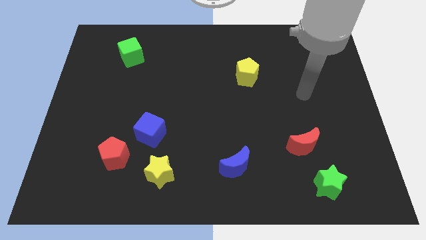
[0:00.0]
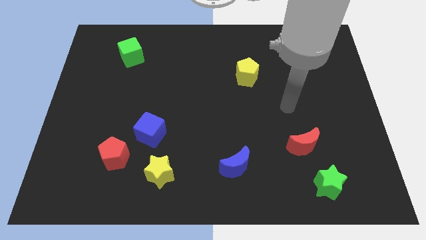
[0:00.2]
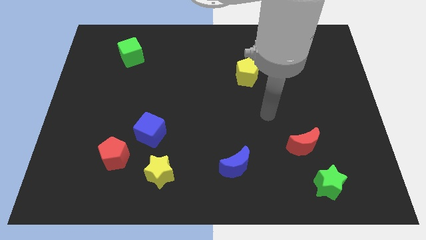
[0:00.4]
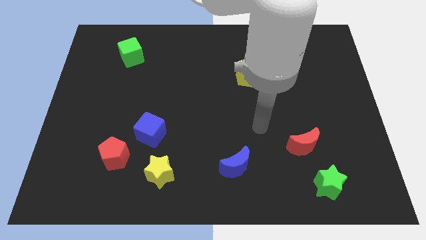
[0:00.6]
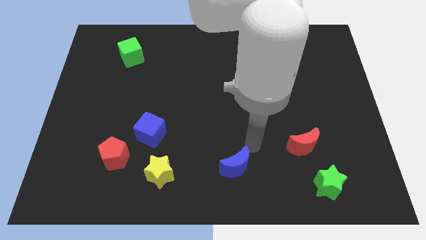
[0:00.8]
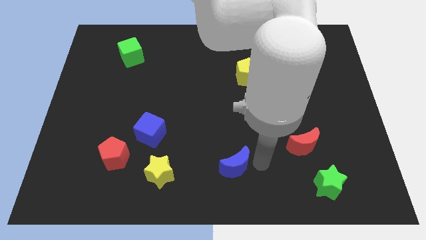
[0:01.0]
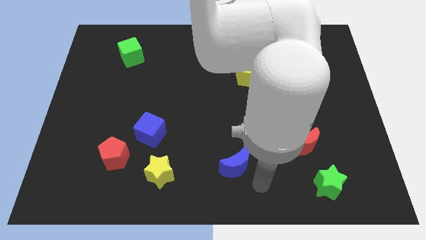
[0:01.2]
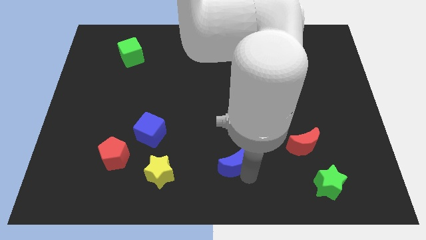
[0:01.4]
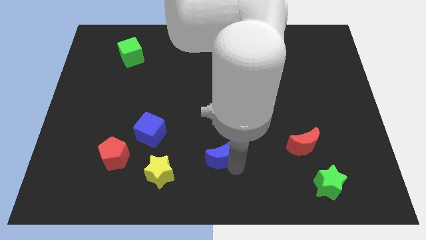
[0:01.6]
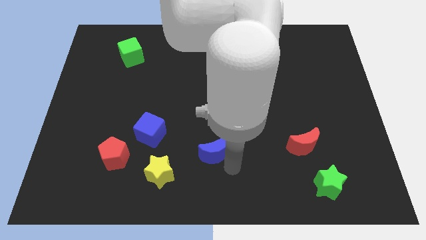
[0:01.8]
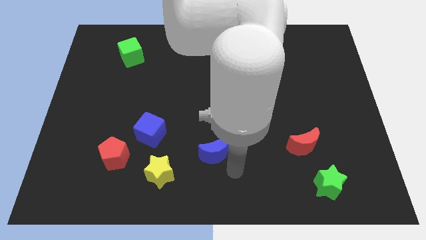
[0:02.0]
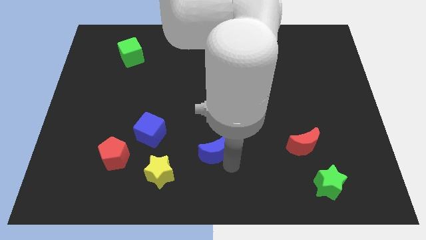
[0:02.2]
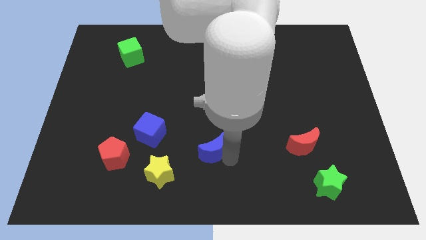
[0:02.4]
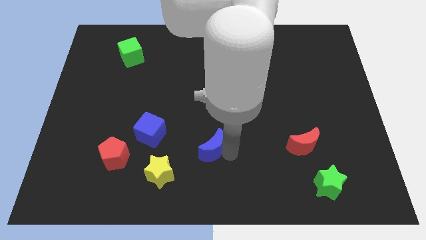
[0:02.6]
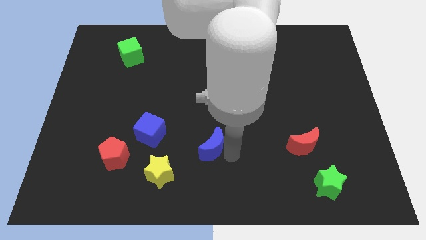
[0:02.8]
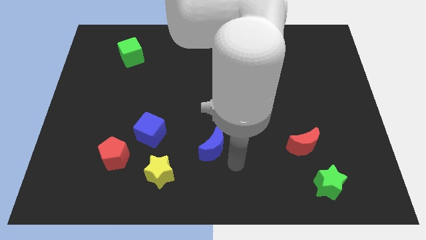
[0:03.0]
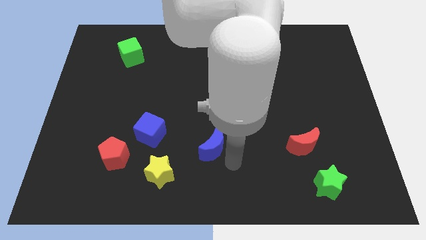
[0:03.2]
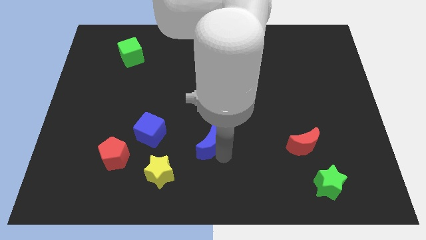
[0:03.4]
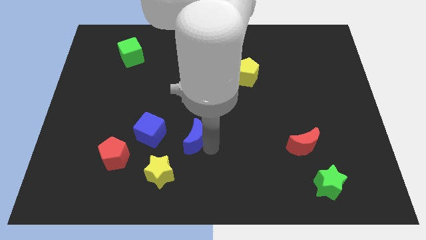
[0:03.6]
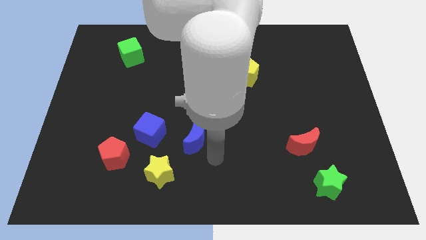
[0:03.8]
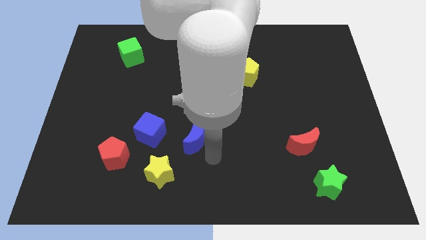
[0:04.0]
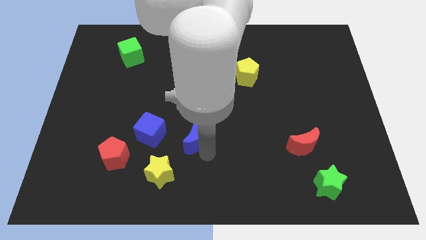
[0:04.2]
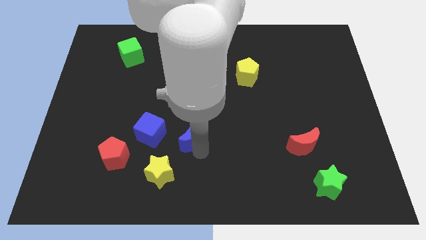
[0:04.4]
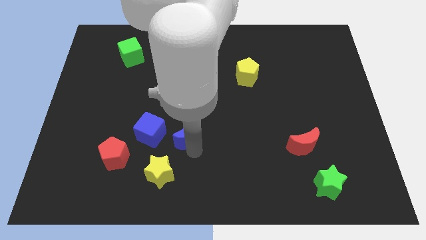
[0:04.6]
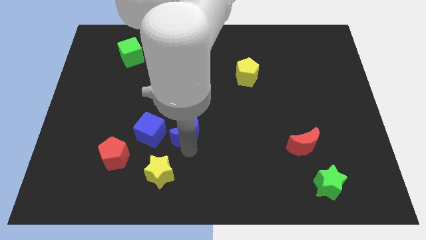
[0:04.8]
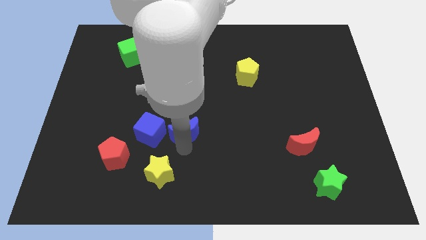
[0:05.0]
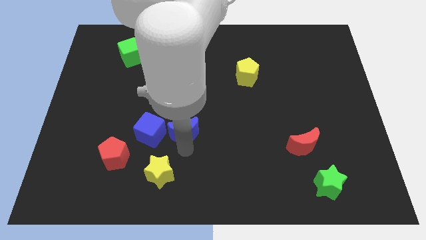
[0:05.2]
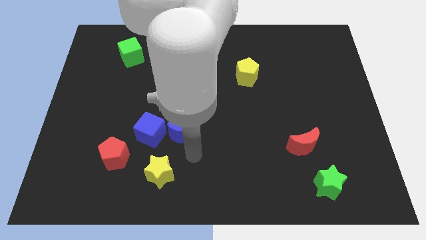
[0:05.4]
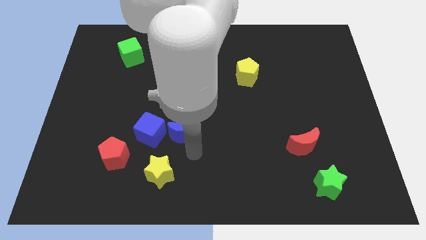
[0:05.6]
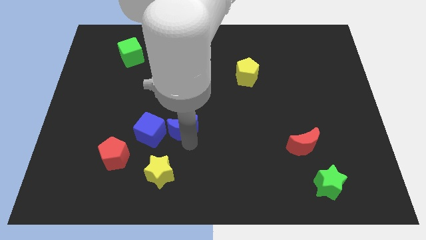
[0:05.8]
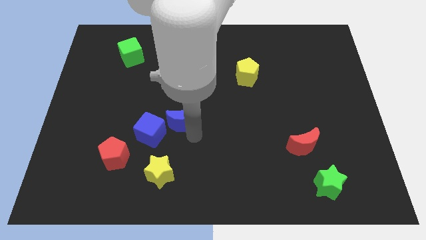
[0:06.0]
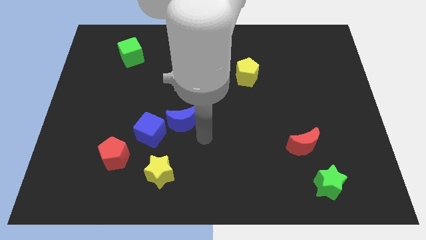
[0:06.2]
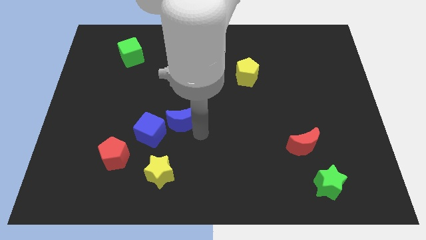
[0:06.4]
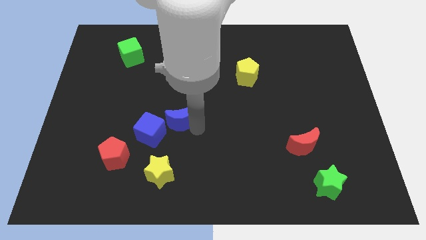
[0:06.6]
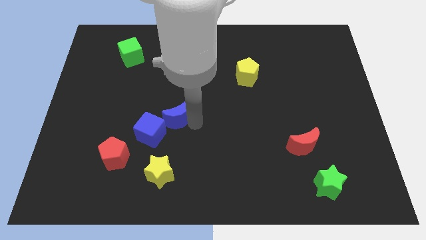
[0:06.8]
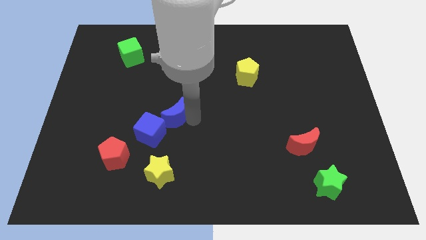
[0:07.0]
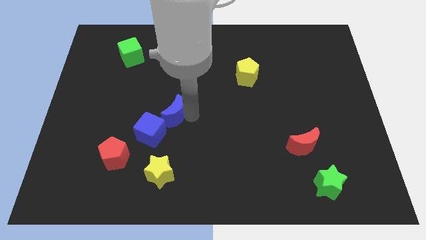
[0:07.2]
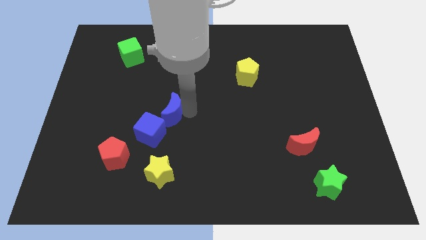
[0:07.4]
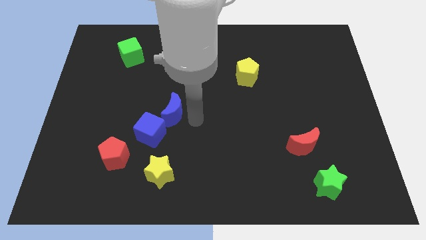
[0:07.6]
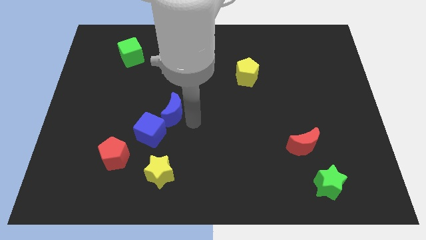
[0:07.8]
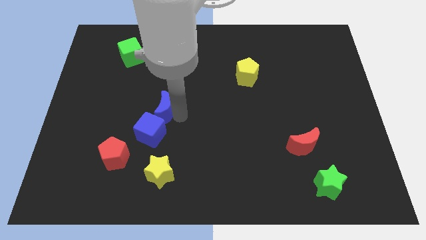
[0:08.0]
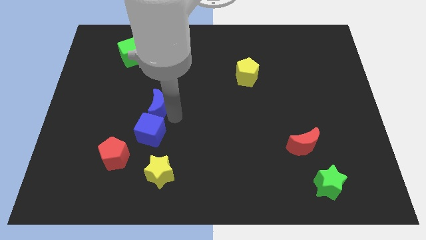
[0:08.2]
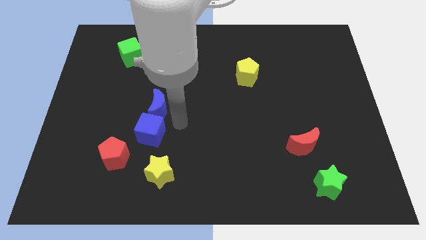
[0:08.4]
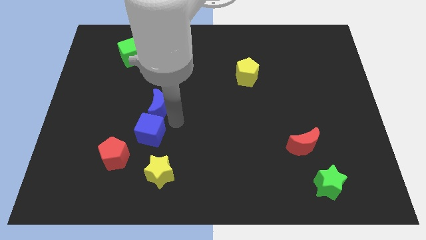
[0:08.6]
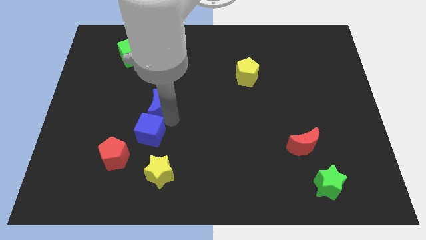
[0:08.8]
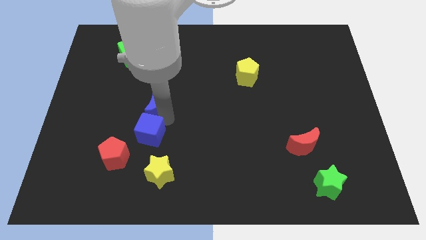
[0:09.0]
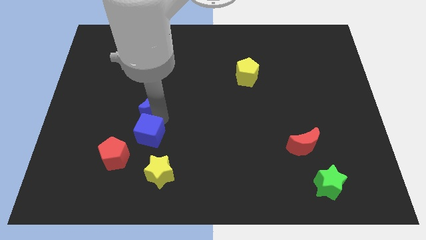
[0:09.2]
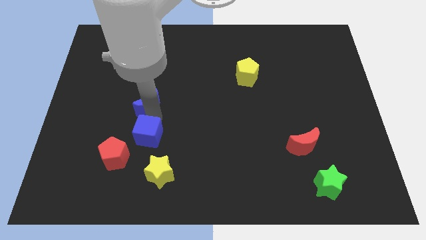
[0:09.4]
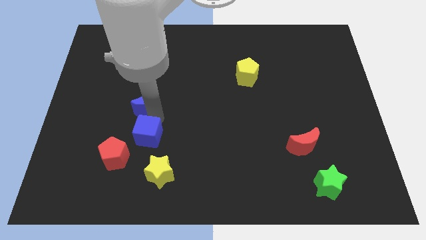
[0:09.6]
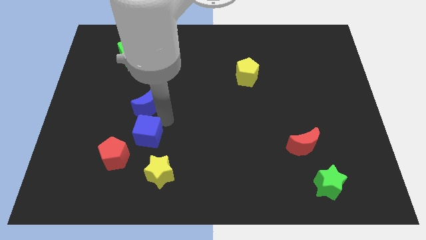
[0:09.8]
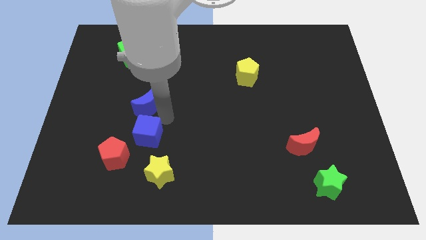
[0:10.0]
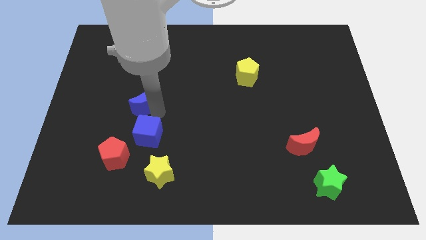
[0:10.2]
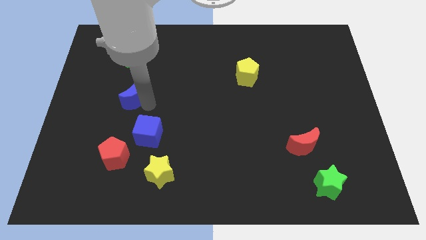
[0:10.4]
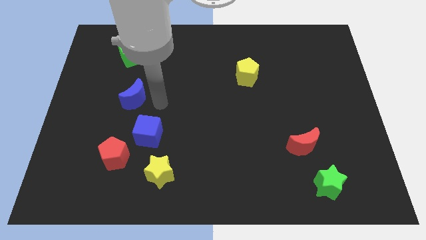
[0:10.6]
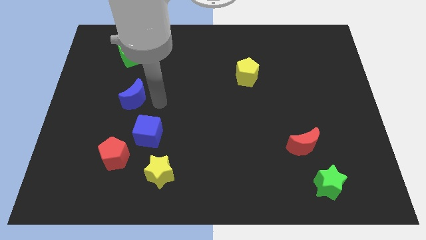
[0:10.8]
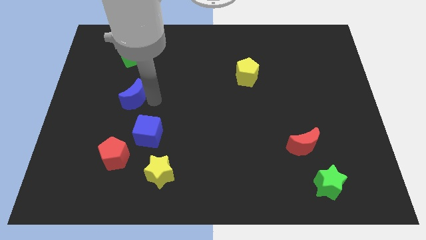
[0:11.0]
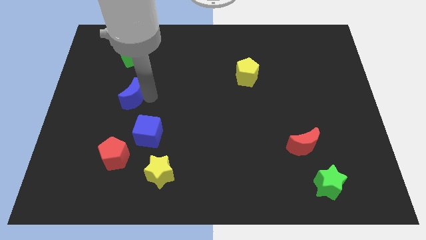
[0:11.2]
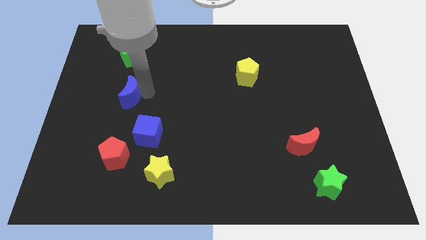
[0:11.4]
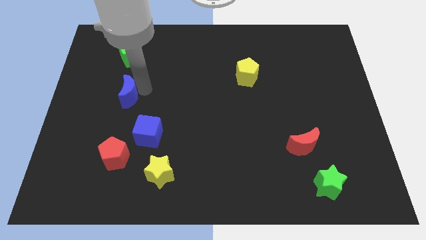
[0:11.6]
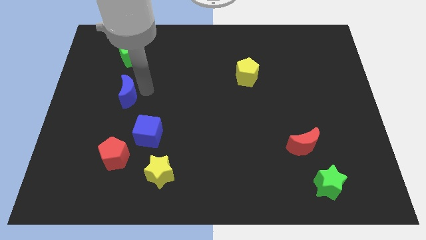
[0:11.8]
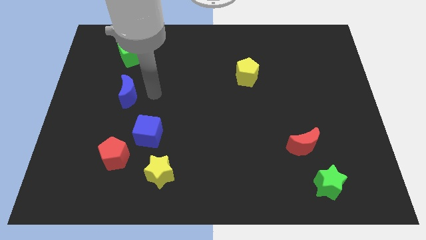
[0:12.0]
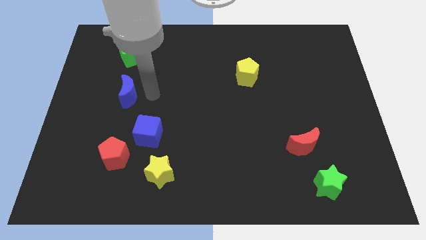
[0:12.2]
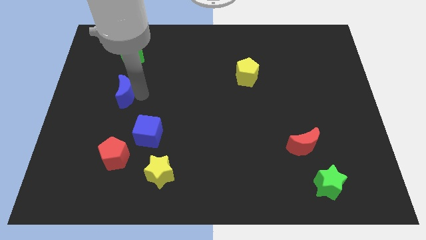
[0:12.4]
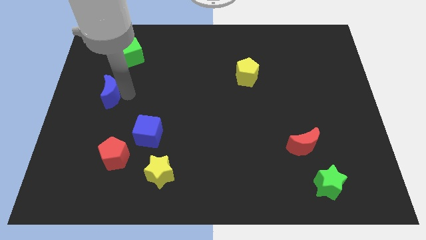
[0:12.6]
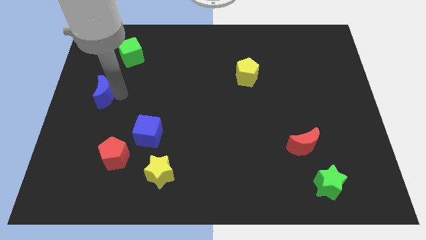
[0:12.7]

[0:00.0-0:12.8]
move the blue moon to the left side of the board

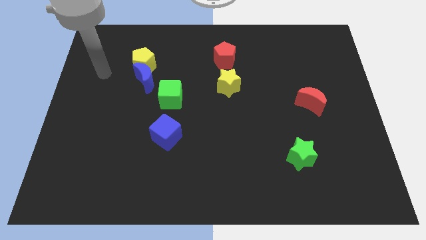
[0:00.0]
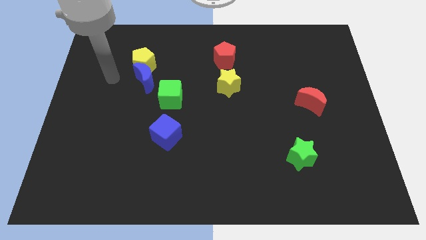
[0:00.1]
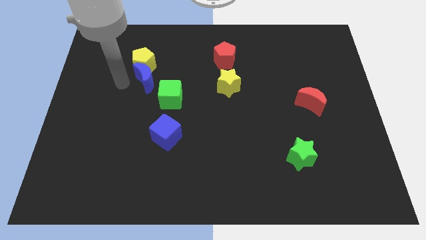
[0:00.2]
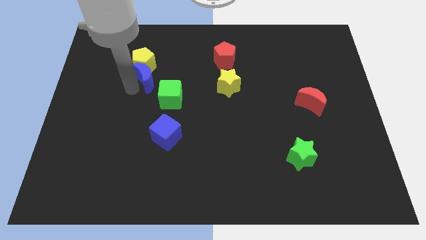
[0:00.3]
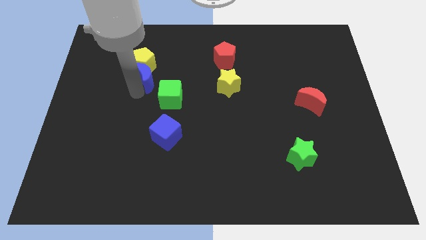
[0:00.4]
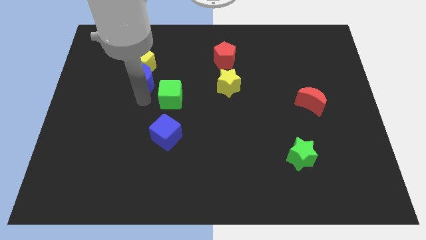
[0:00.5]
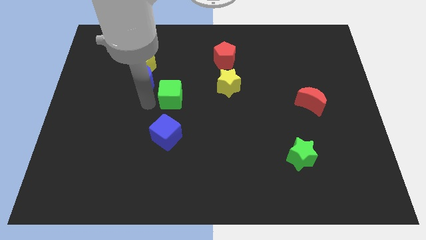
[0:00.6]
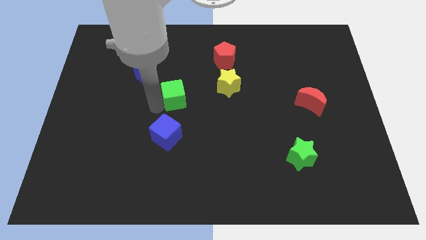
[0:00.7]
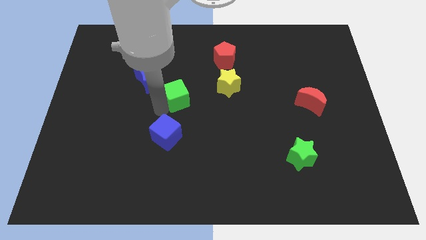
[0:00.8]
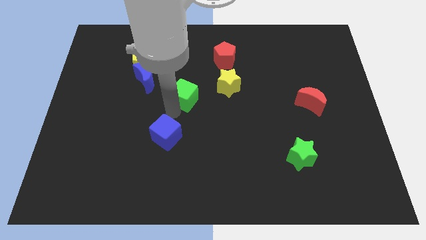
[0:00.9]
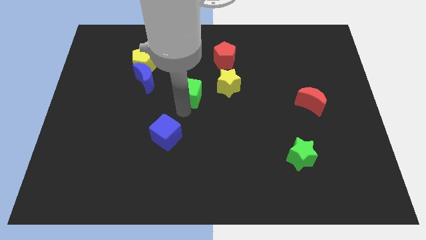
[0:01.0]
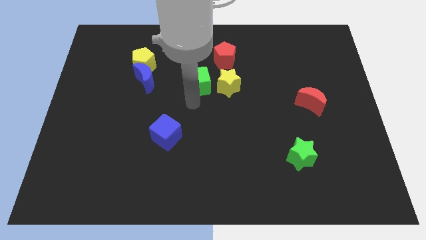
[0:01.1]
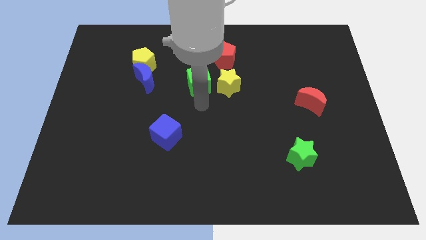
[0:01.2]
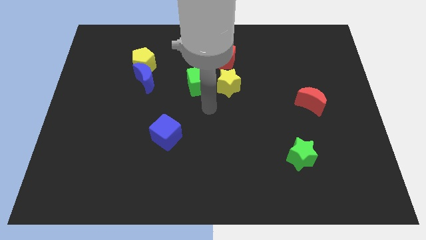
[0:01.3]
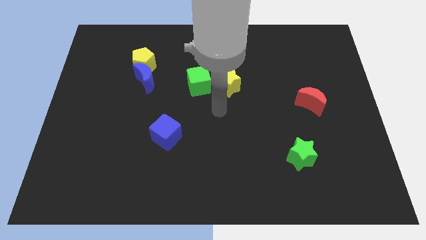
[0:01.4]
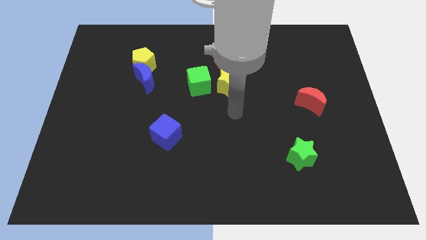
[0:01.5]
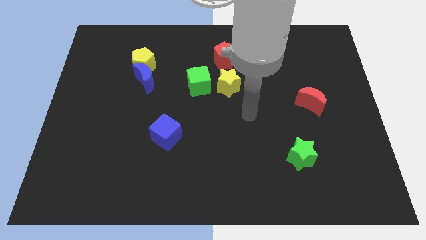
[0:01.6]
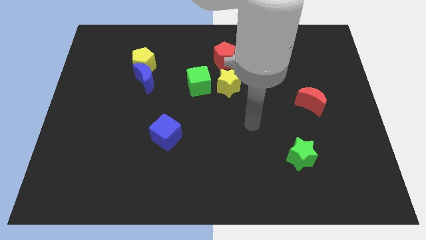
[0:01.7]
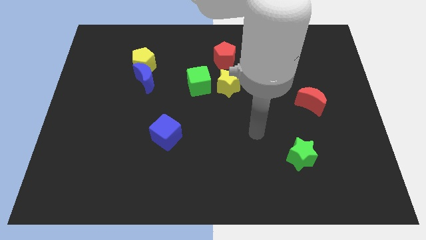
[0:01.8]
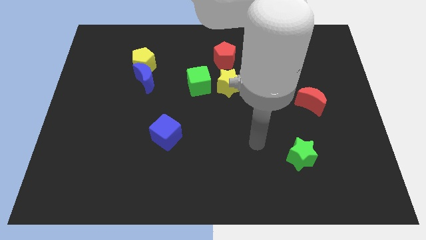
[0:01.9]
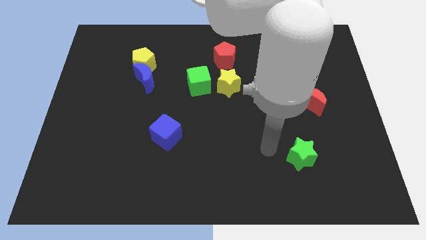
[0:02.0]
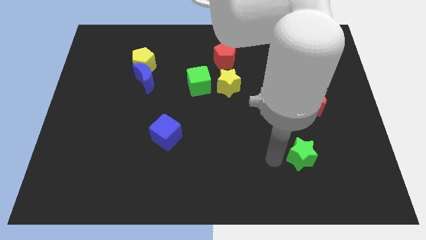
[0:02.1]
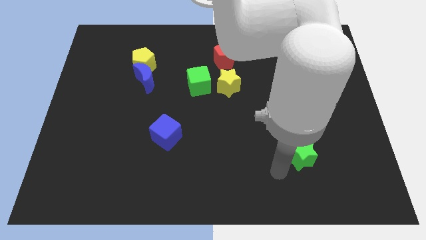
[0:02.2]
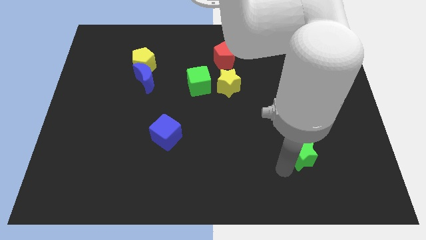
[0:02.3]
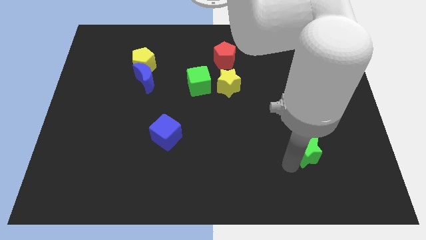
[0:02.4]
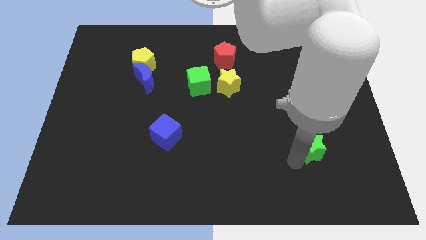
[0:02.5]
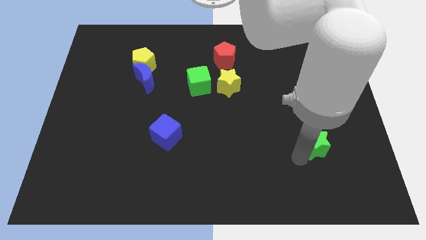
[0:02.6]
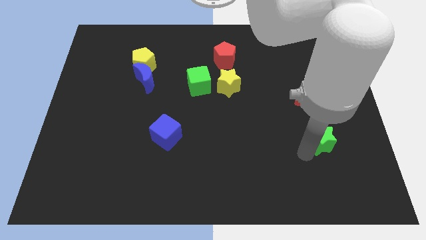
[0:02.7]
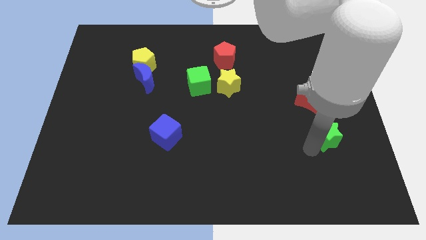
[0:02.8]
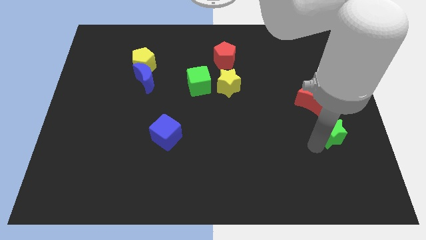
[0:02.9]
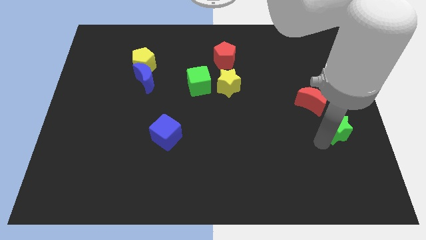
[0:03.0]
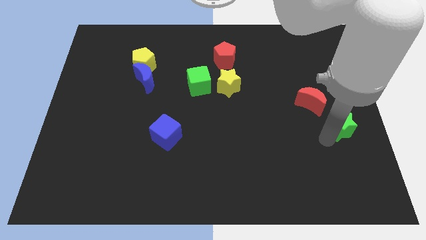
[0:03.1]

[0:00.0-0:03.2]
put the green star to the right side
